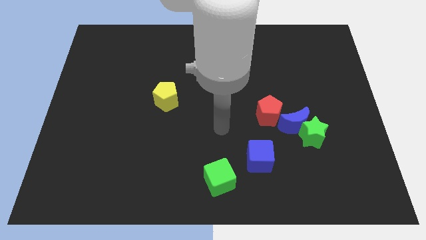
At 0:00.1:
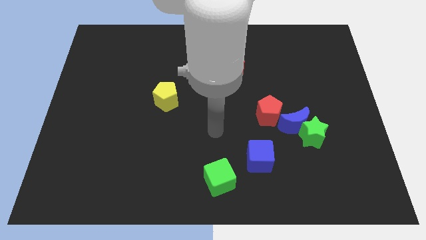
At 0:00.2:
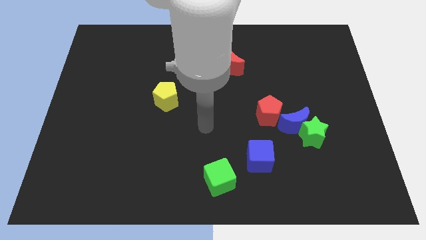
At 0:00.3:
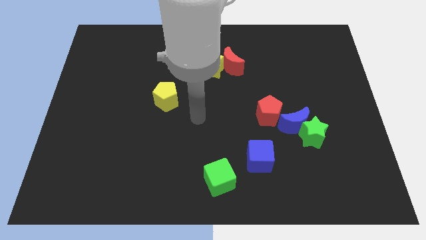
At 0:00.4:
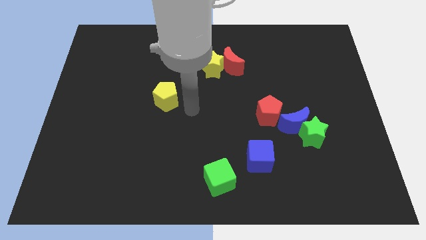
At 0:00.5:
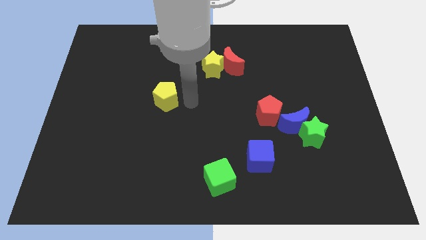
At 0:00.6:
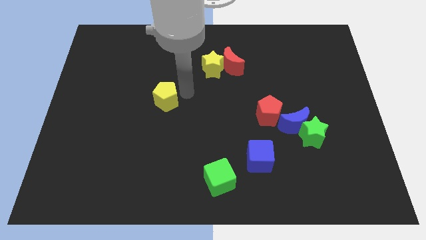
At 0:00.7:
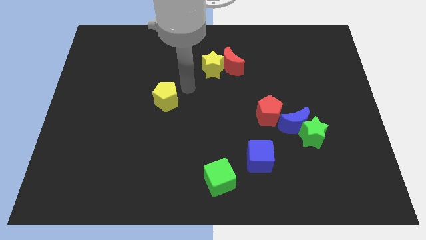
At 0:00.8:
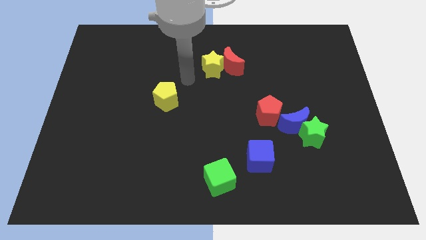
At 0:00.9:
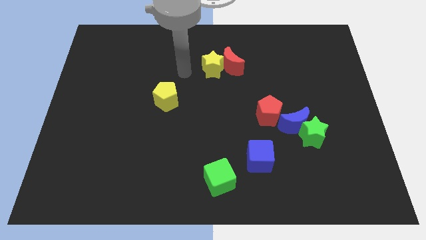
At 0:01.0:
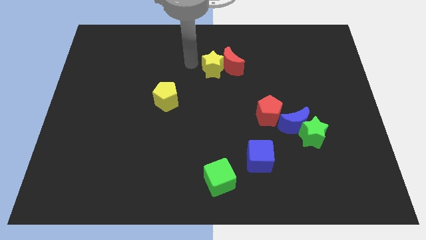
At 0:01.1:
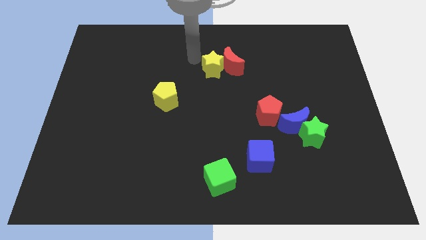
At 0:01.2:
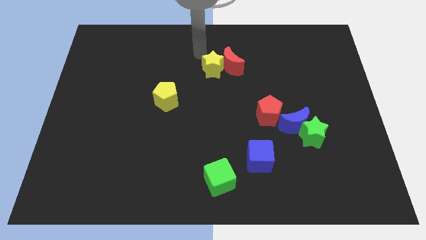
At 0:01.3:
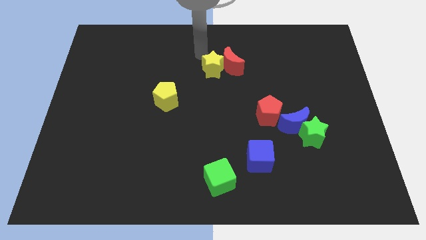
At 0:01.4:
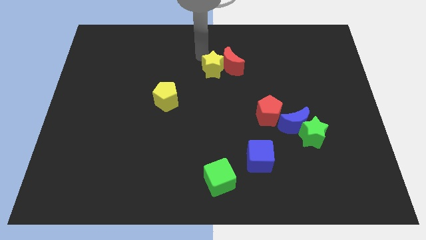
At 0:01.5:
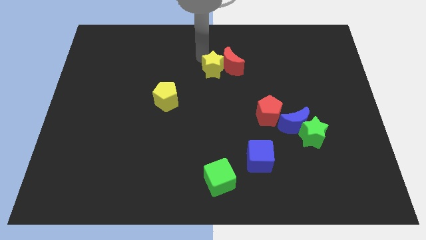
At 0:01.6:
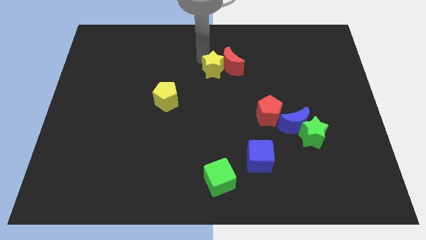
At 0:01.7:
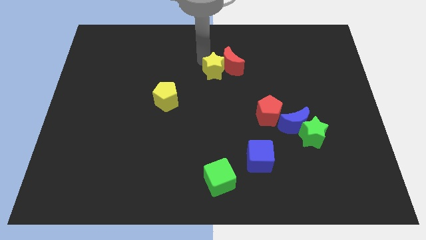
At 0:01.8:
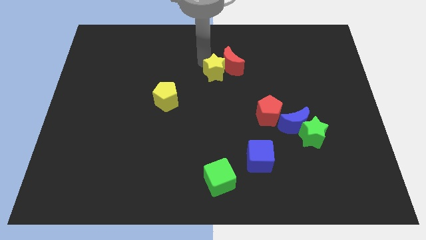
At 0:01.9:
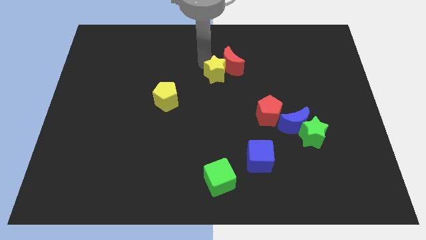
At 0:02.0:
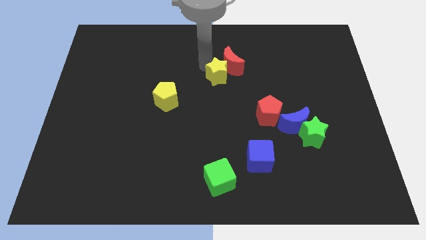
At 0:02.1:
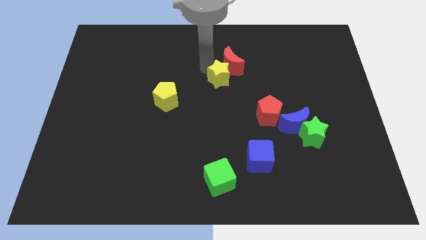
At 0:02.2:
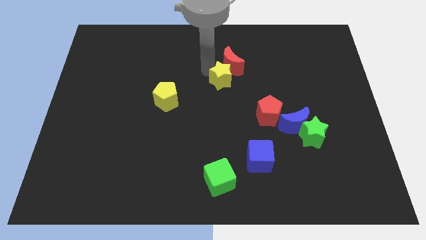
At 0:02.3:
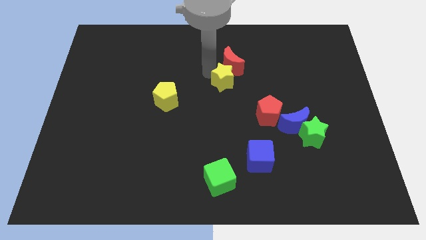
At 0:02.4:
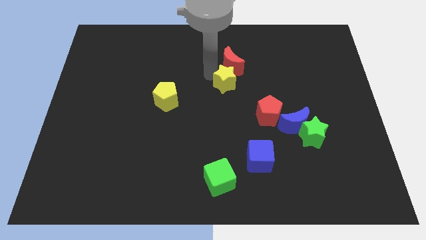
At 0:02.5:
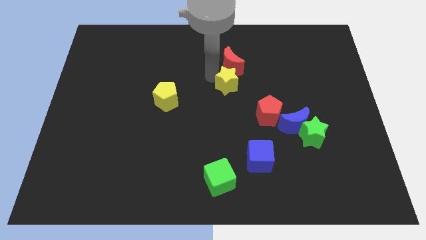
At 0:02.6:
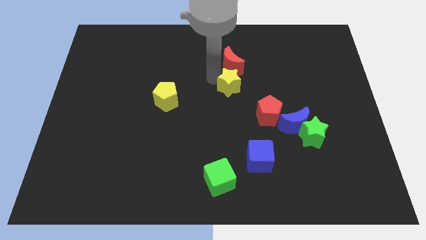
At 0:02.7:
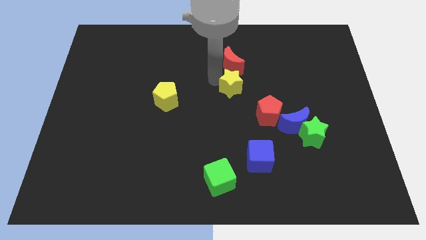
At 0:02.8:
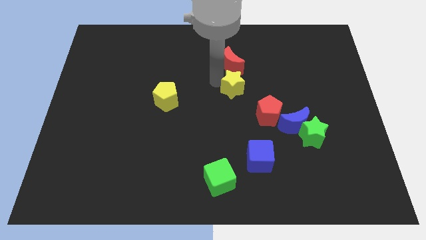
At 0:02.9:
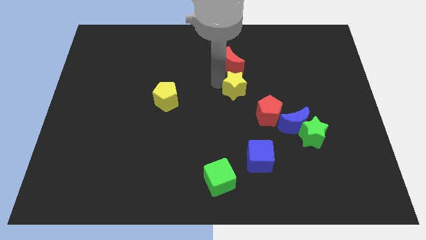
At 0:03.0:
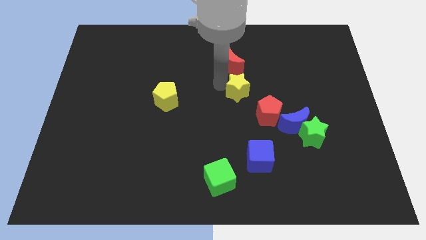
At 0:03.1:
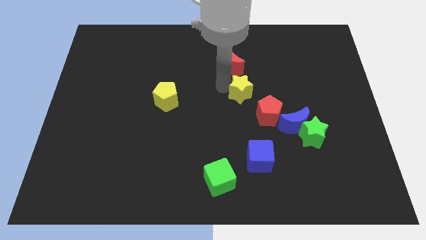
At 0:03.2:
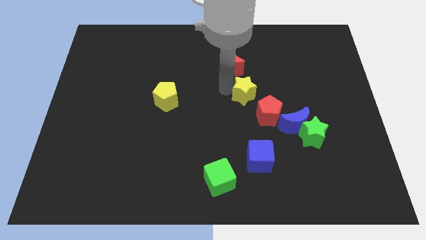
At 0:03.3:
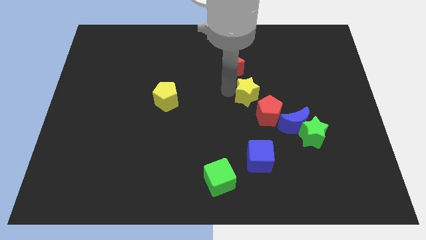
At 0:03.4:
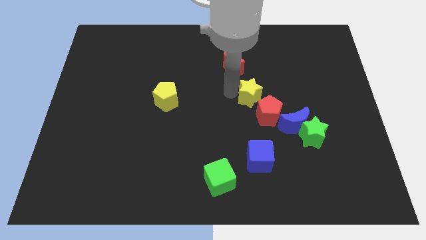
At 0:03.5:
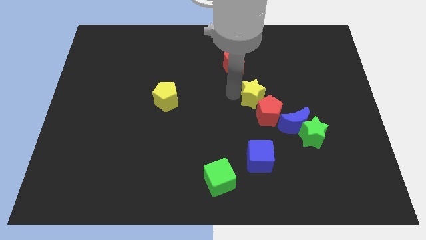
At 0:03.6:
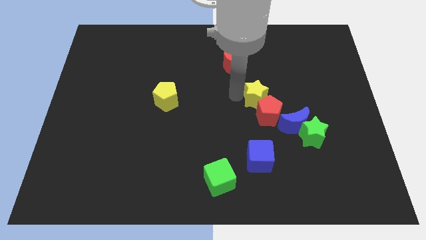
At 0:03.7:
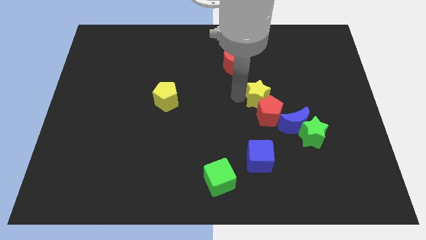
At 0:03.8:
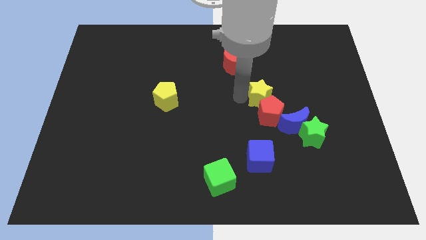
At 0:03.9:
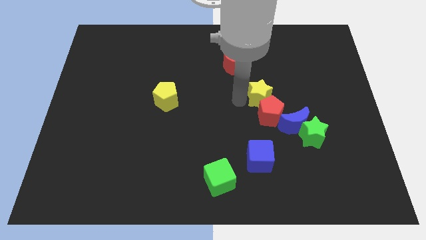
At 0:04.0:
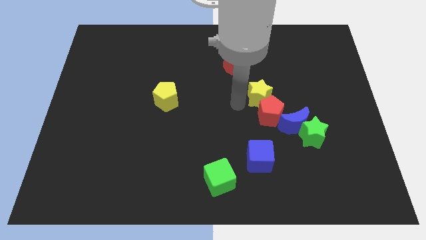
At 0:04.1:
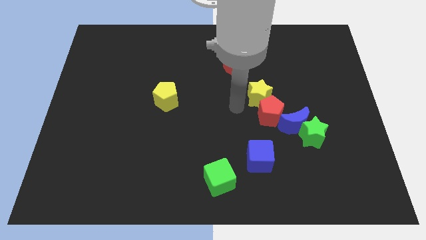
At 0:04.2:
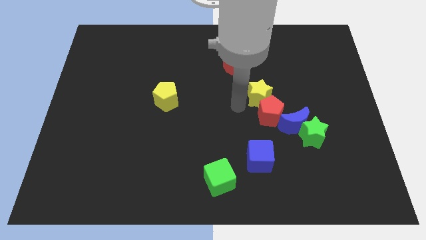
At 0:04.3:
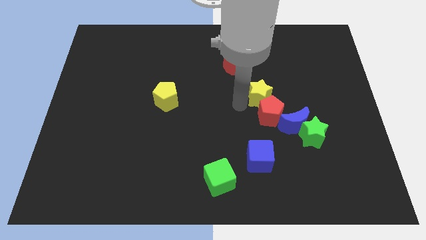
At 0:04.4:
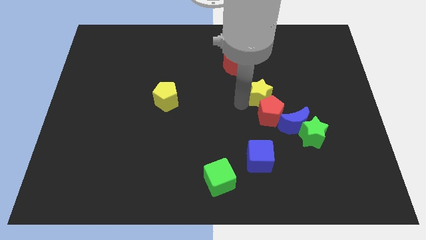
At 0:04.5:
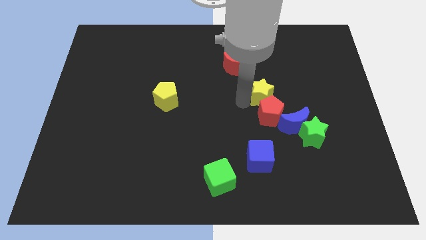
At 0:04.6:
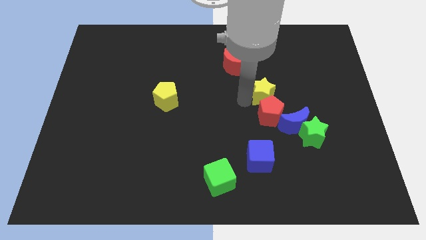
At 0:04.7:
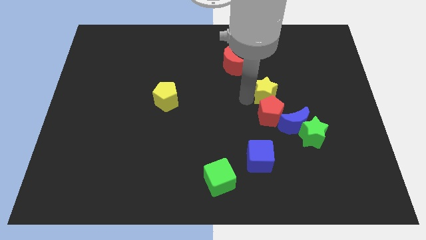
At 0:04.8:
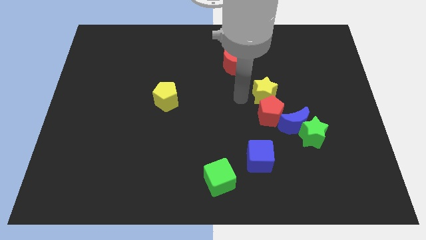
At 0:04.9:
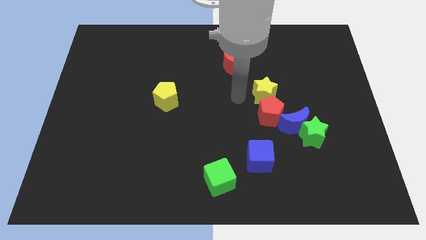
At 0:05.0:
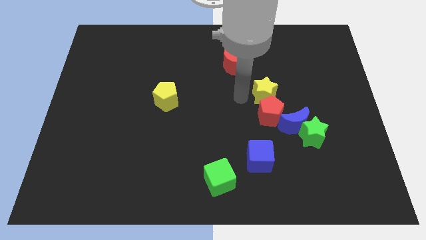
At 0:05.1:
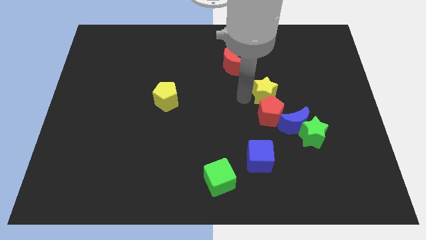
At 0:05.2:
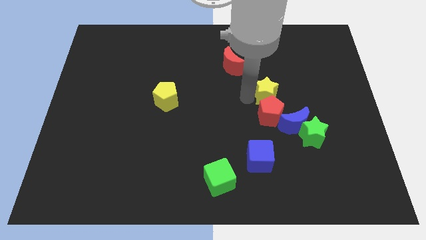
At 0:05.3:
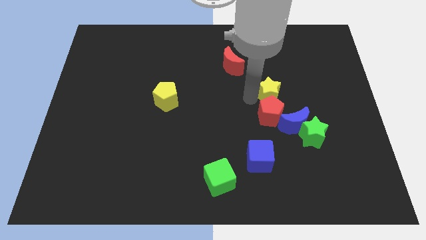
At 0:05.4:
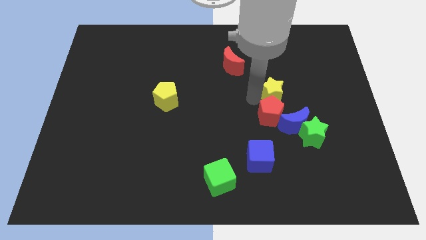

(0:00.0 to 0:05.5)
move the yellow star to the top side of the blue moon

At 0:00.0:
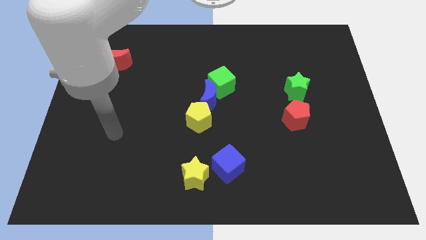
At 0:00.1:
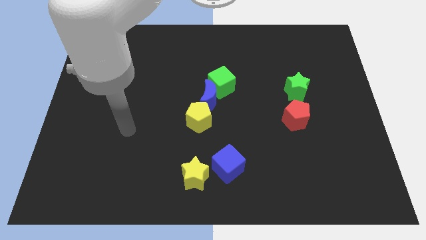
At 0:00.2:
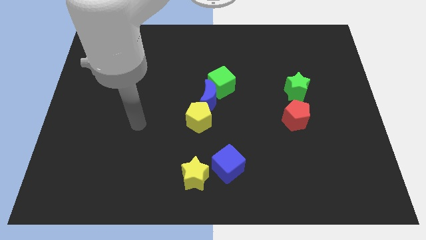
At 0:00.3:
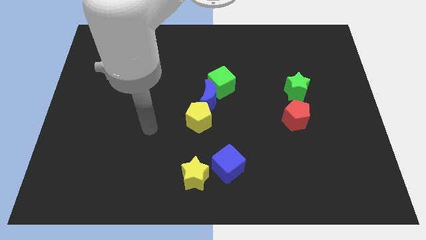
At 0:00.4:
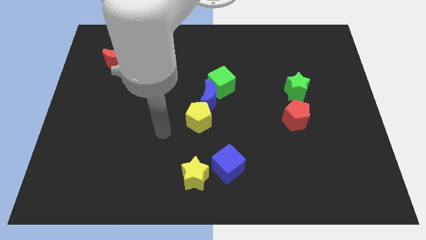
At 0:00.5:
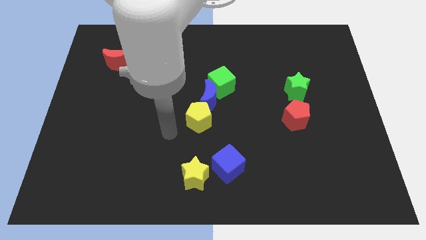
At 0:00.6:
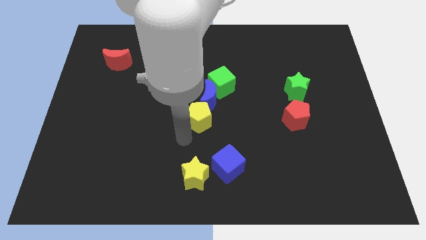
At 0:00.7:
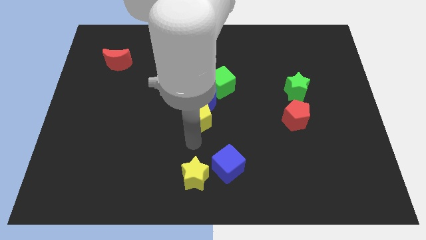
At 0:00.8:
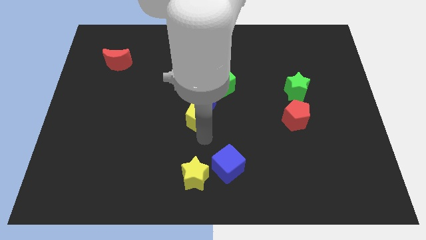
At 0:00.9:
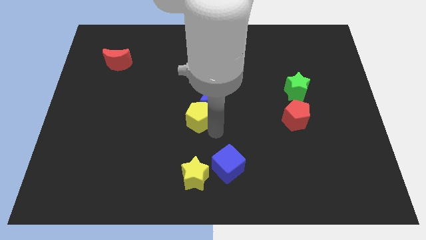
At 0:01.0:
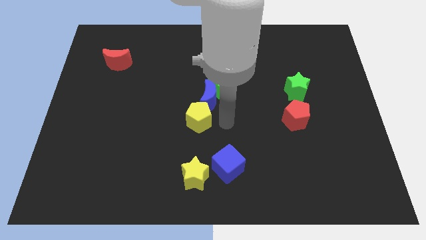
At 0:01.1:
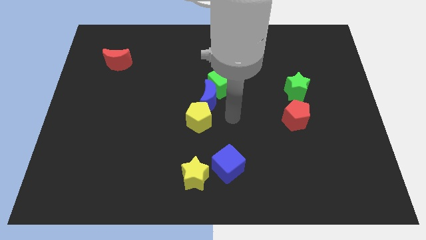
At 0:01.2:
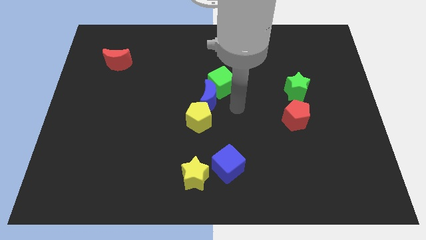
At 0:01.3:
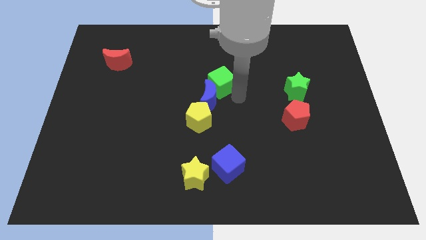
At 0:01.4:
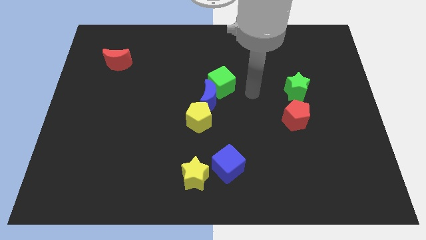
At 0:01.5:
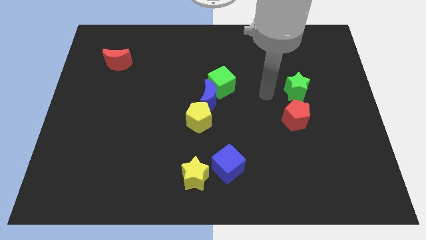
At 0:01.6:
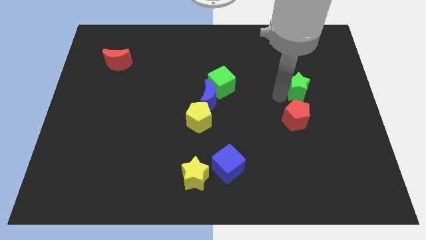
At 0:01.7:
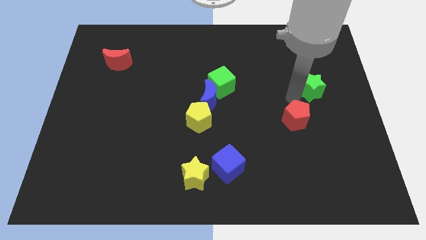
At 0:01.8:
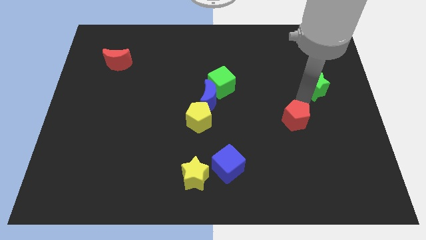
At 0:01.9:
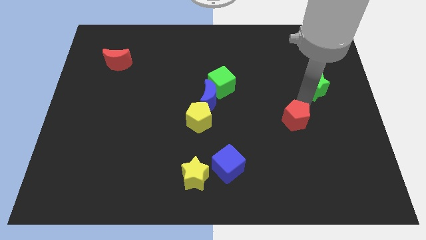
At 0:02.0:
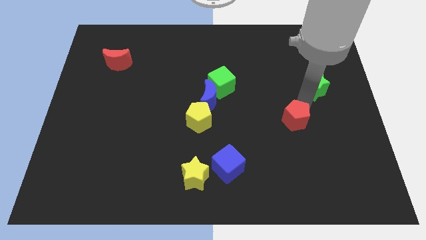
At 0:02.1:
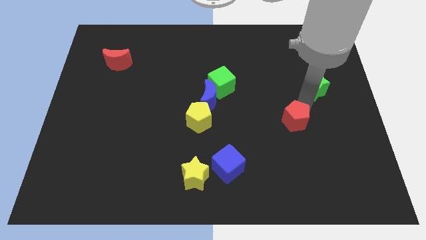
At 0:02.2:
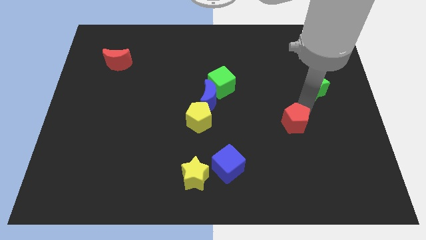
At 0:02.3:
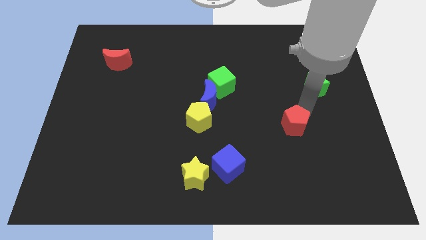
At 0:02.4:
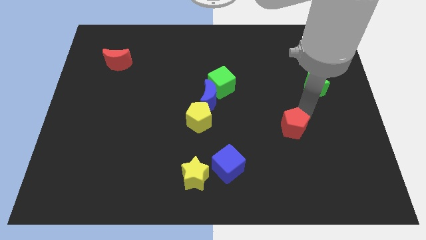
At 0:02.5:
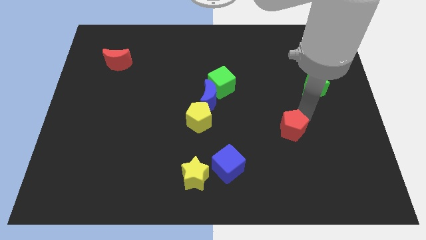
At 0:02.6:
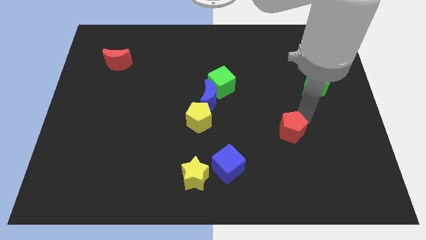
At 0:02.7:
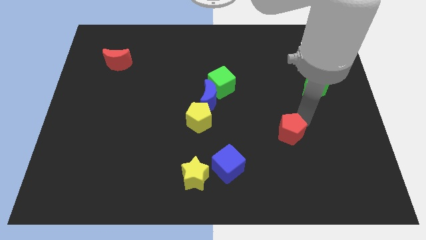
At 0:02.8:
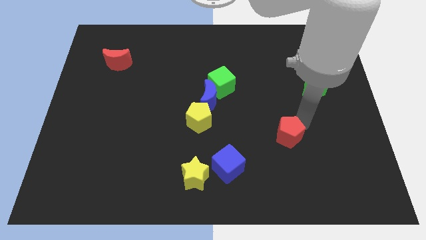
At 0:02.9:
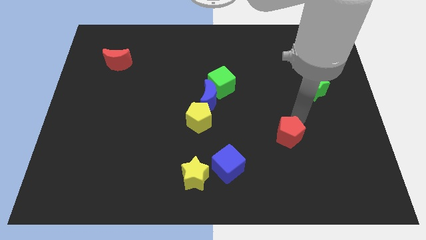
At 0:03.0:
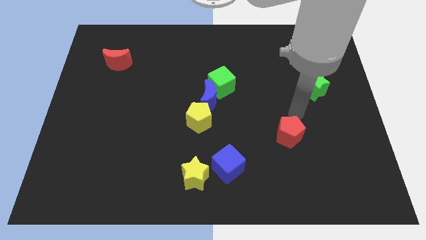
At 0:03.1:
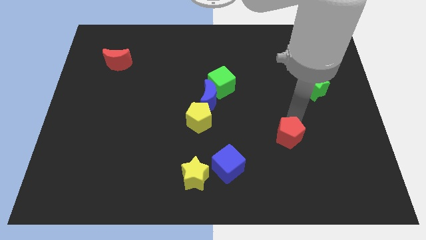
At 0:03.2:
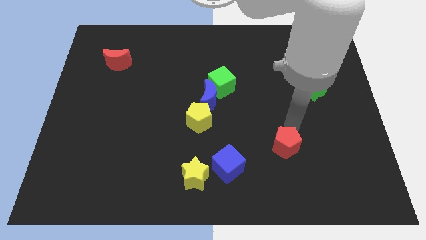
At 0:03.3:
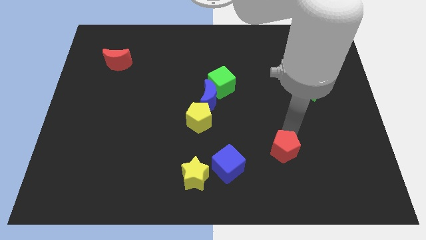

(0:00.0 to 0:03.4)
move the red pentagon right of the blue cube
